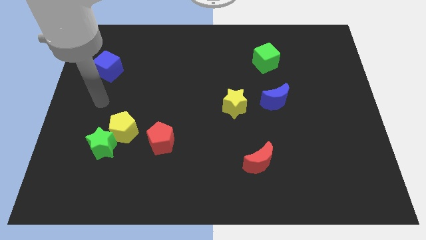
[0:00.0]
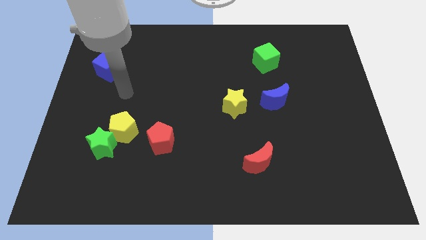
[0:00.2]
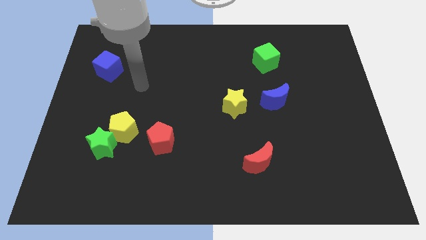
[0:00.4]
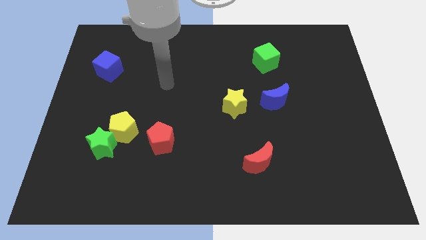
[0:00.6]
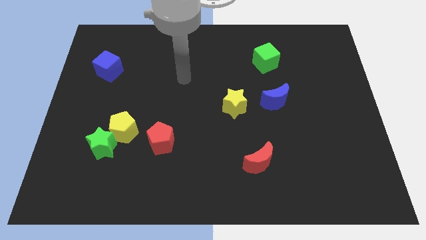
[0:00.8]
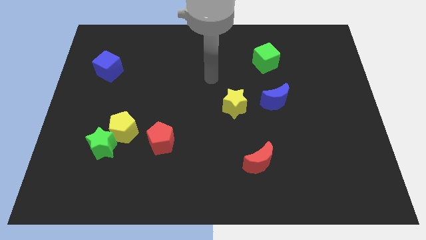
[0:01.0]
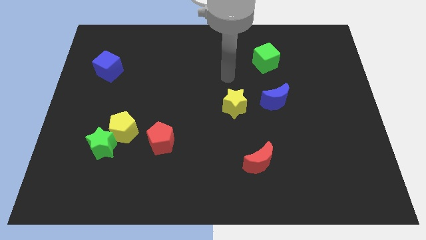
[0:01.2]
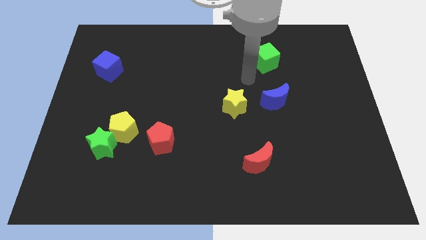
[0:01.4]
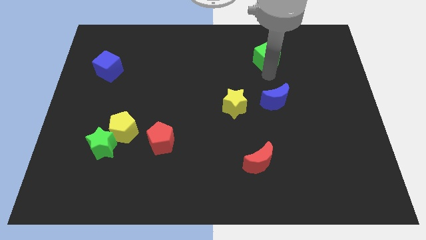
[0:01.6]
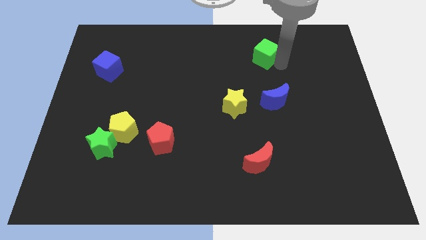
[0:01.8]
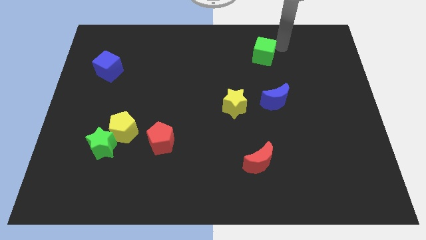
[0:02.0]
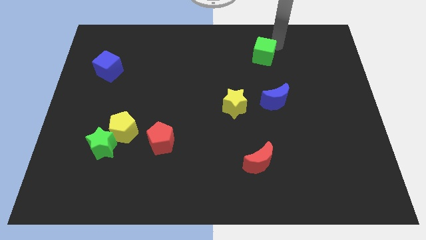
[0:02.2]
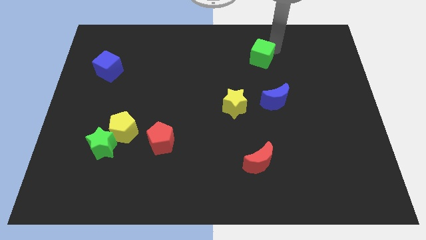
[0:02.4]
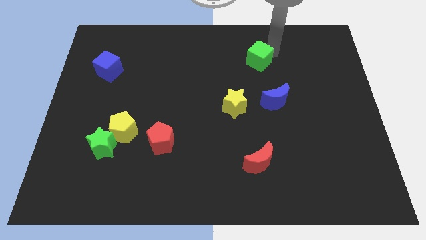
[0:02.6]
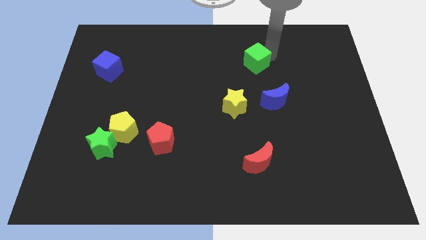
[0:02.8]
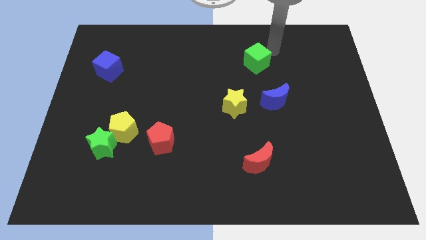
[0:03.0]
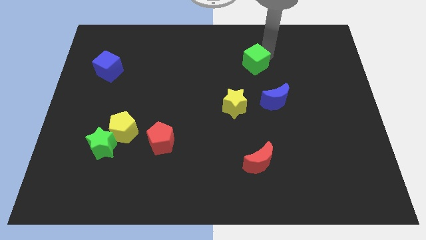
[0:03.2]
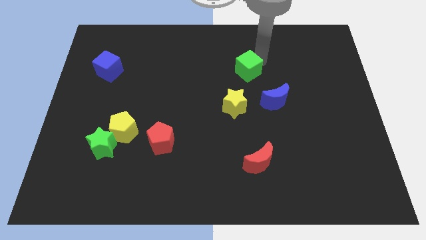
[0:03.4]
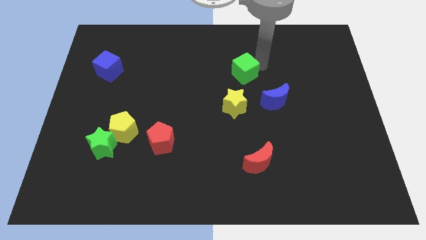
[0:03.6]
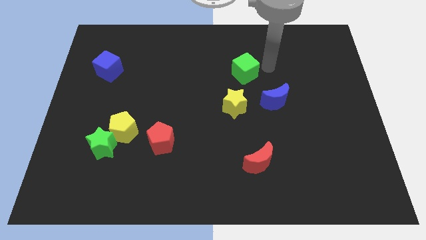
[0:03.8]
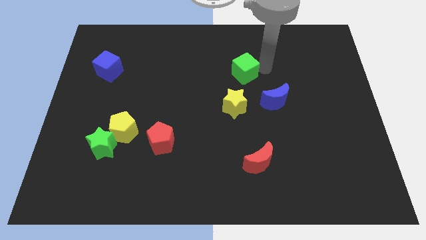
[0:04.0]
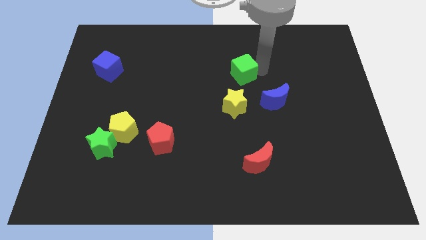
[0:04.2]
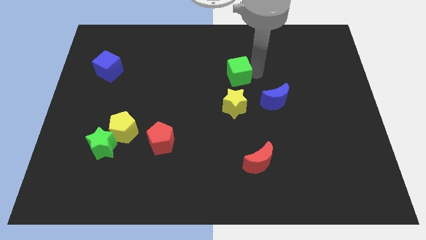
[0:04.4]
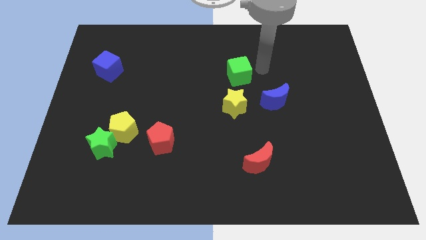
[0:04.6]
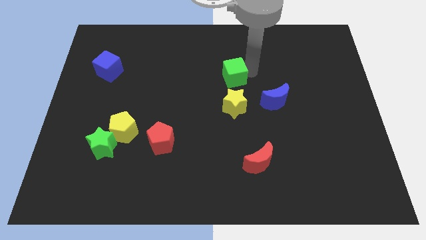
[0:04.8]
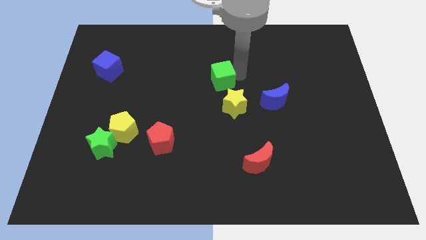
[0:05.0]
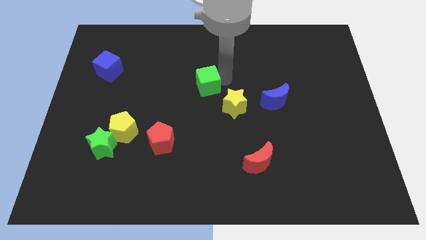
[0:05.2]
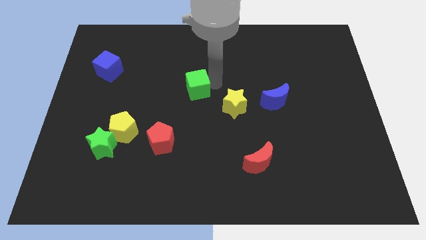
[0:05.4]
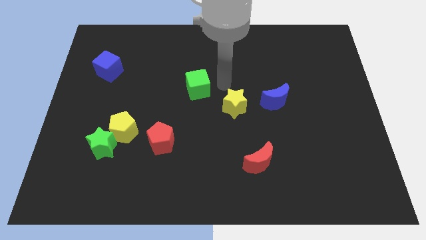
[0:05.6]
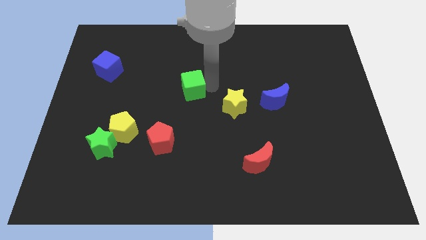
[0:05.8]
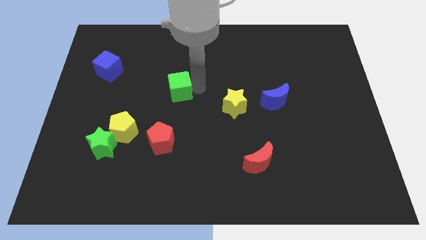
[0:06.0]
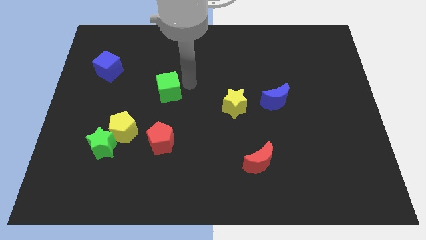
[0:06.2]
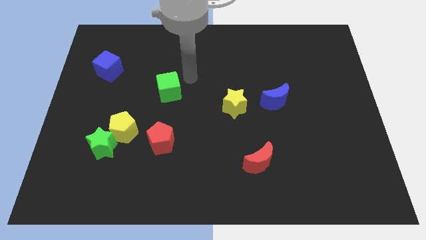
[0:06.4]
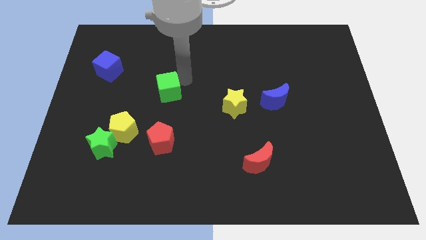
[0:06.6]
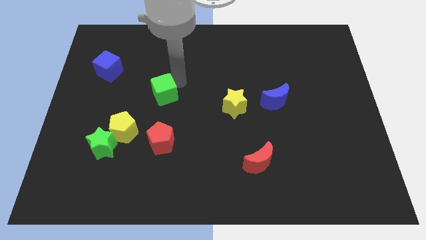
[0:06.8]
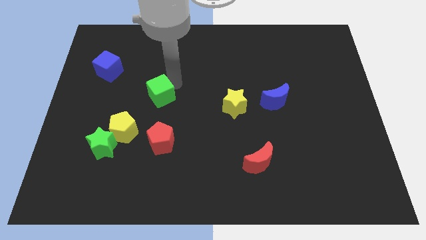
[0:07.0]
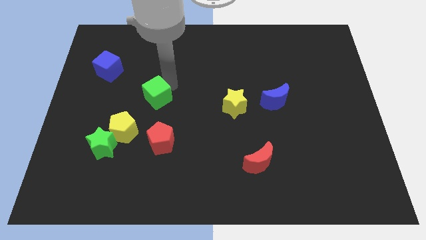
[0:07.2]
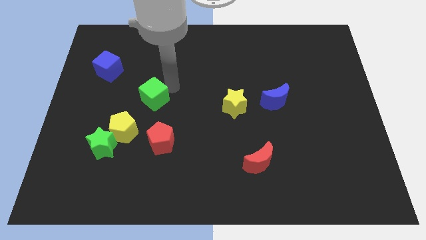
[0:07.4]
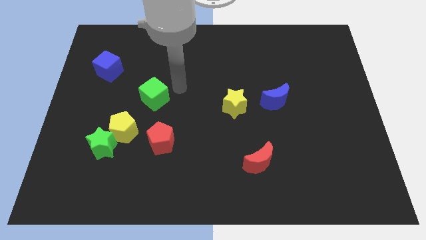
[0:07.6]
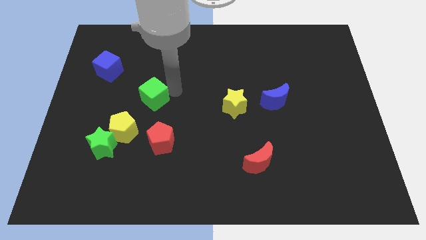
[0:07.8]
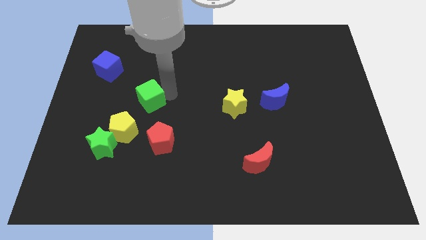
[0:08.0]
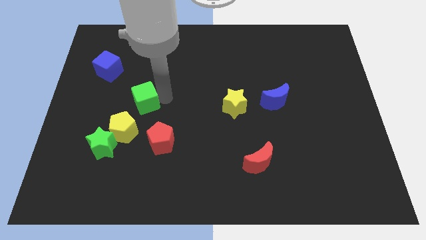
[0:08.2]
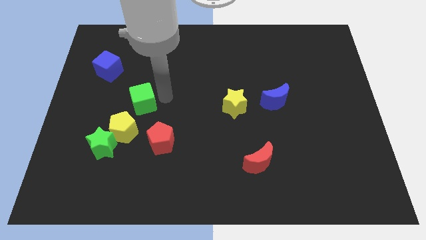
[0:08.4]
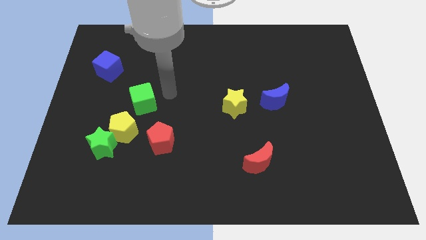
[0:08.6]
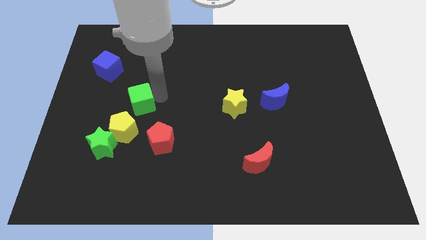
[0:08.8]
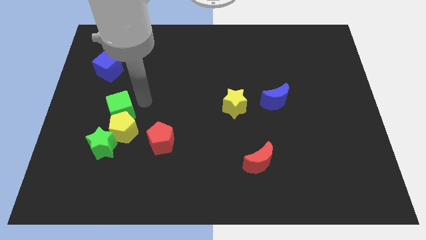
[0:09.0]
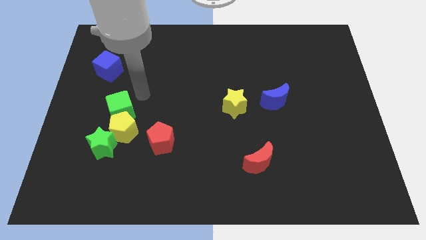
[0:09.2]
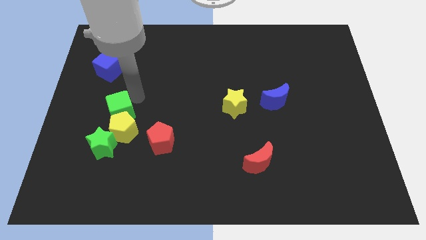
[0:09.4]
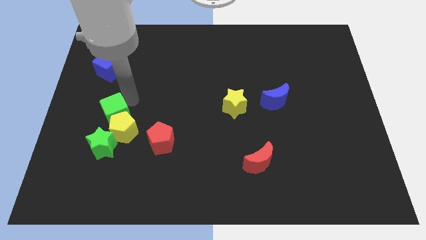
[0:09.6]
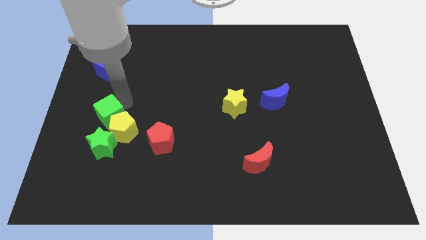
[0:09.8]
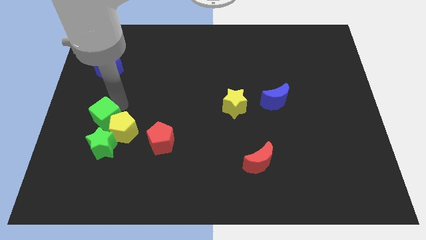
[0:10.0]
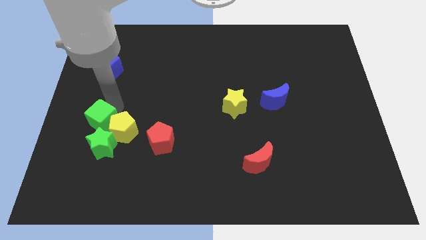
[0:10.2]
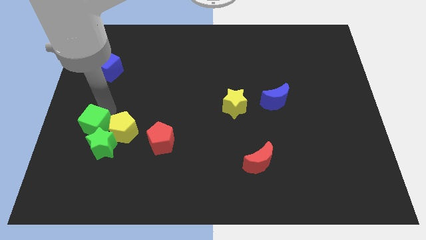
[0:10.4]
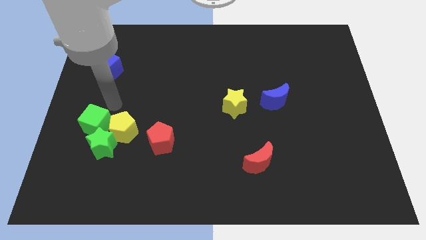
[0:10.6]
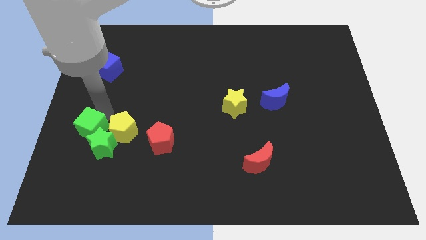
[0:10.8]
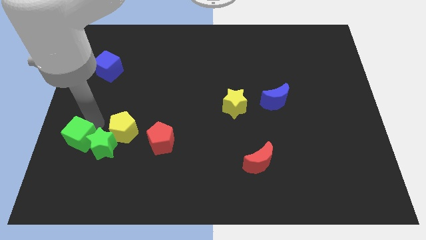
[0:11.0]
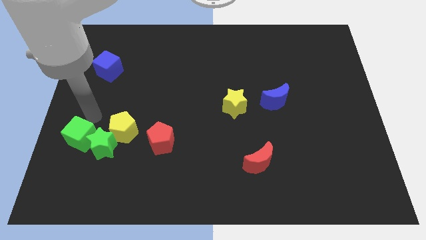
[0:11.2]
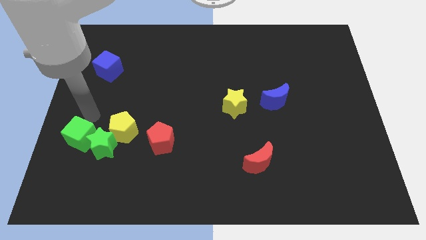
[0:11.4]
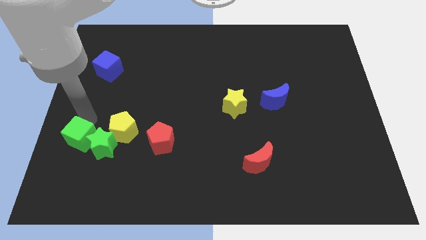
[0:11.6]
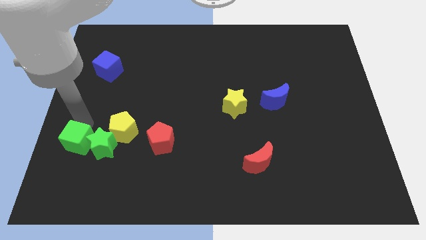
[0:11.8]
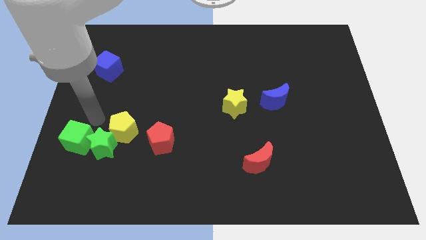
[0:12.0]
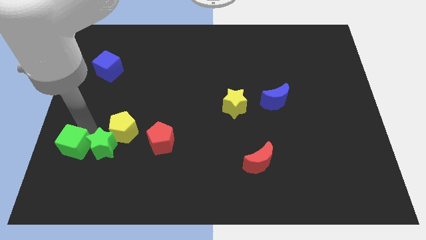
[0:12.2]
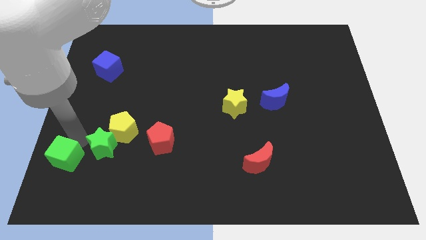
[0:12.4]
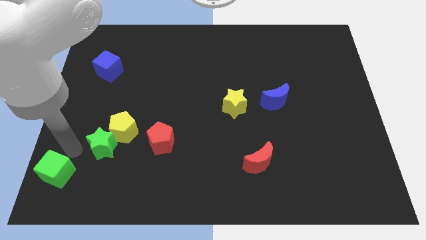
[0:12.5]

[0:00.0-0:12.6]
put the green cube to the bottom left corner

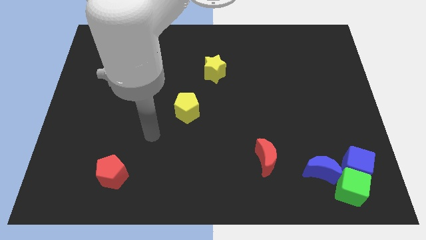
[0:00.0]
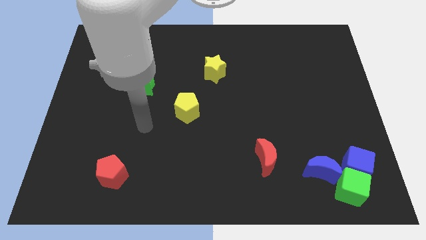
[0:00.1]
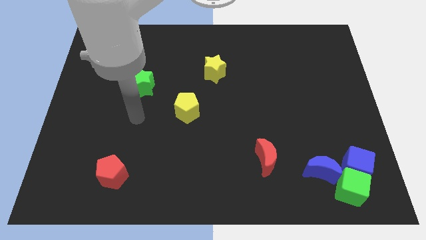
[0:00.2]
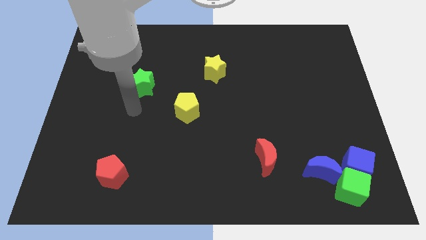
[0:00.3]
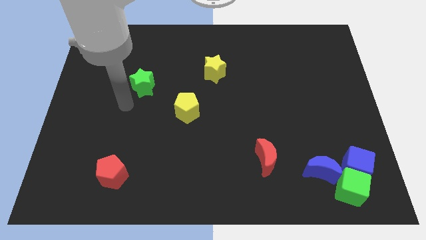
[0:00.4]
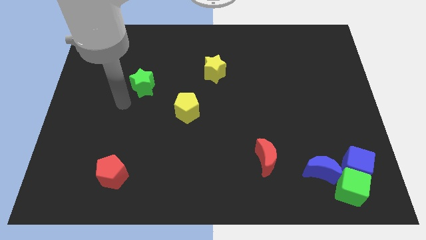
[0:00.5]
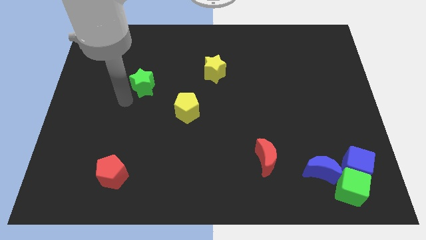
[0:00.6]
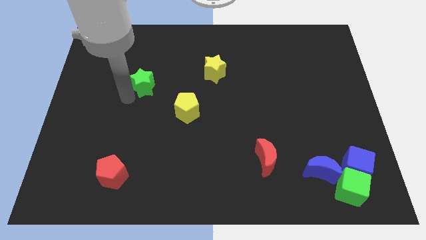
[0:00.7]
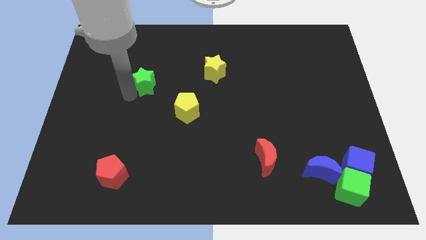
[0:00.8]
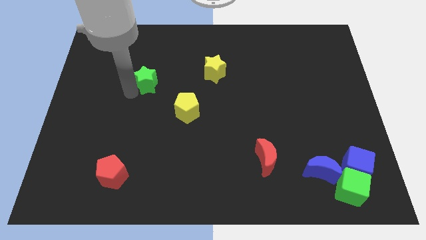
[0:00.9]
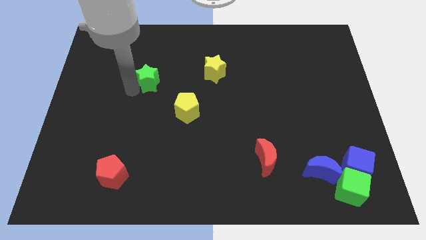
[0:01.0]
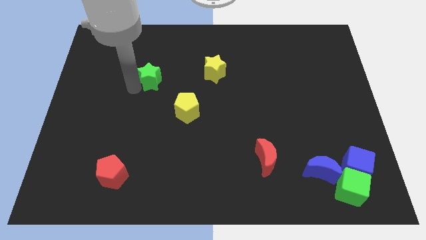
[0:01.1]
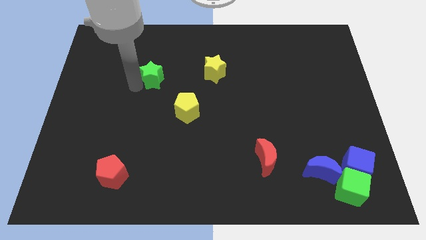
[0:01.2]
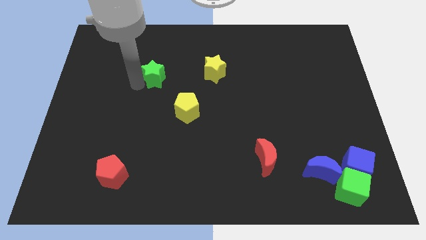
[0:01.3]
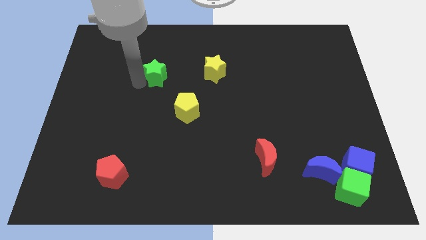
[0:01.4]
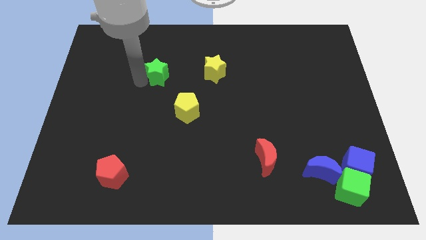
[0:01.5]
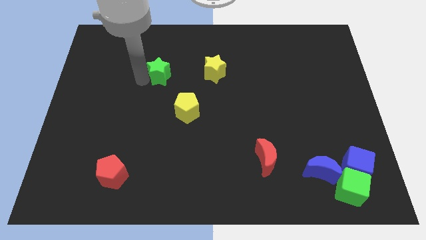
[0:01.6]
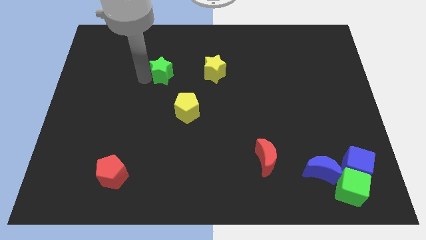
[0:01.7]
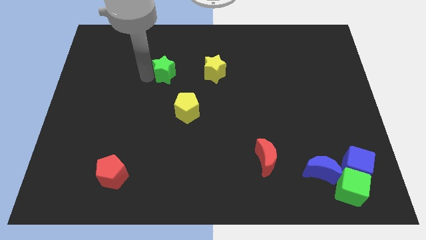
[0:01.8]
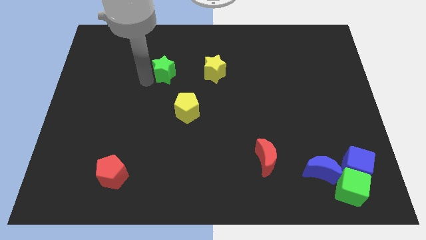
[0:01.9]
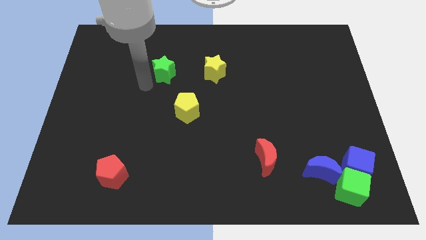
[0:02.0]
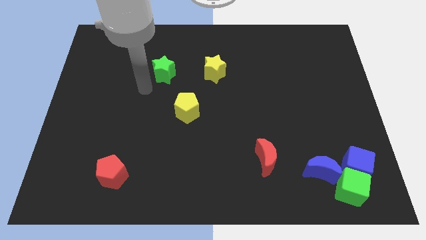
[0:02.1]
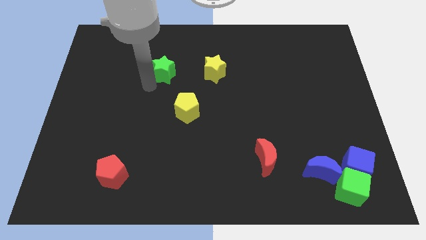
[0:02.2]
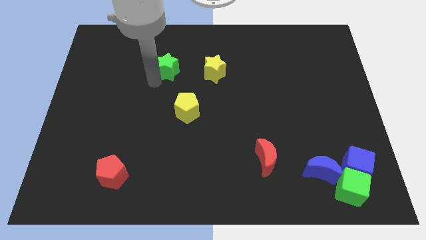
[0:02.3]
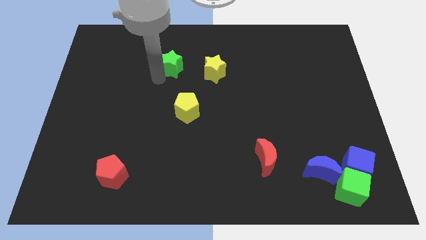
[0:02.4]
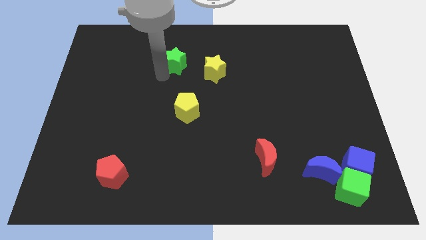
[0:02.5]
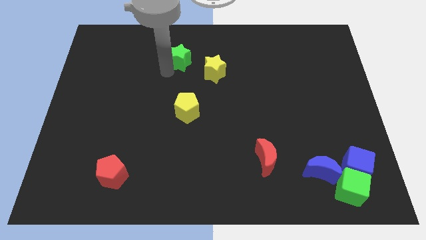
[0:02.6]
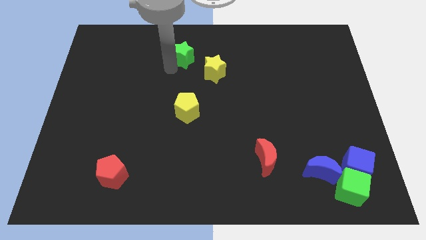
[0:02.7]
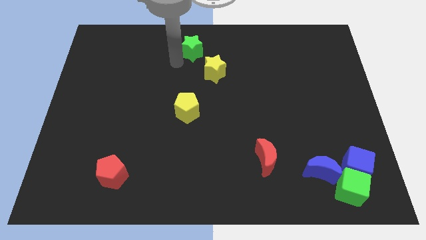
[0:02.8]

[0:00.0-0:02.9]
put the green star to the top
